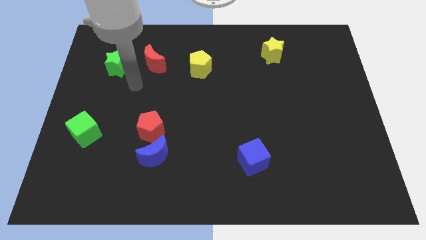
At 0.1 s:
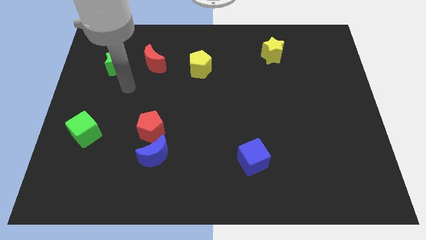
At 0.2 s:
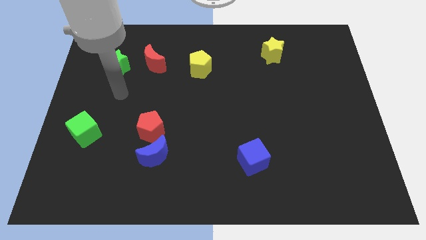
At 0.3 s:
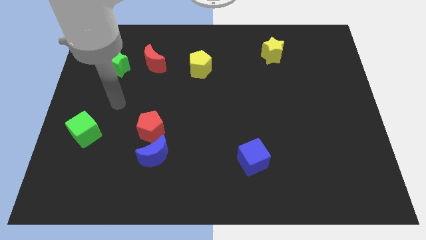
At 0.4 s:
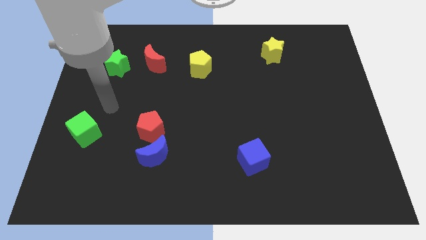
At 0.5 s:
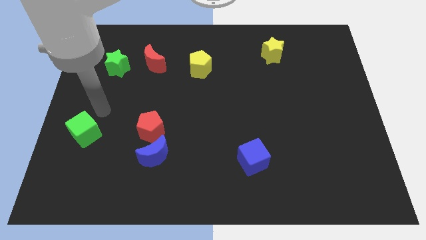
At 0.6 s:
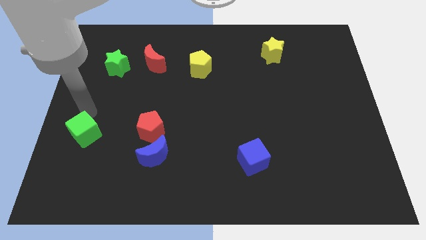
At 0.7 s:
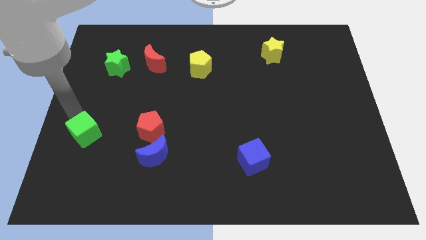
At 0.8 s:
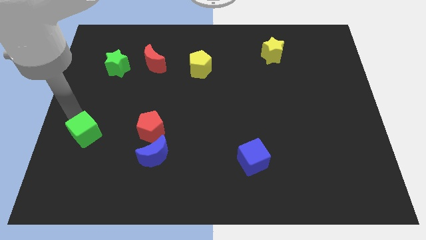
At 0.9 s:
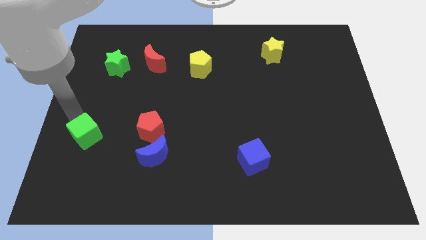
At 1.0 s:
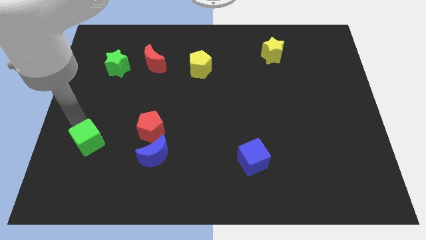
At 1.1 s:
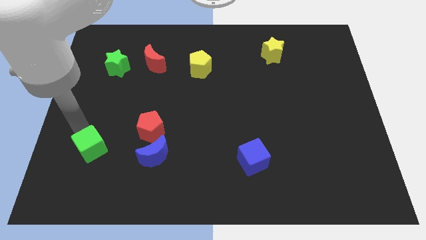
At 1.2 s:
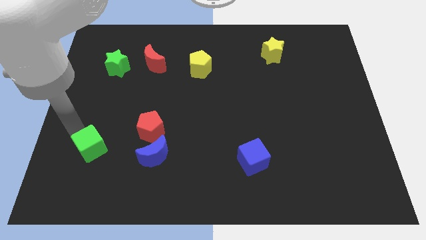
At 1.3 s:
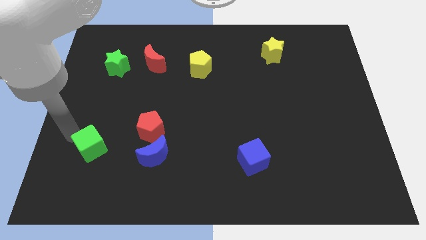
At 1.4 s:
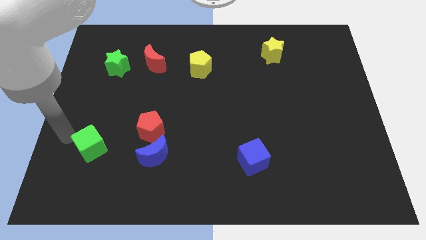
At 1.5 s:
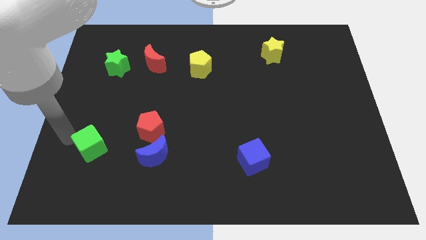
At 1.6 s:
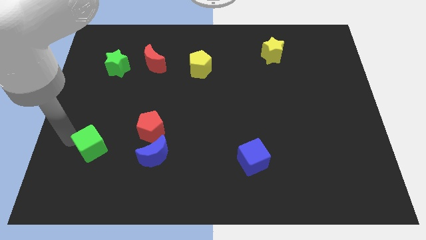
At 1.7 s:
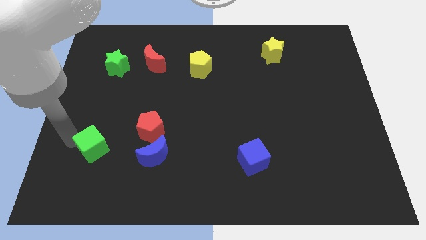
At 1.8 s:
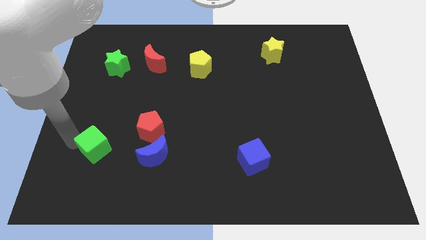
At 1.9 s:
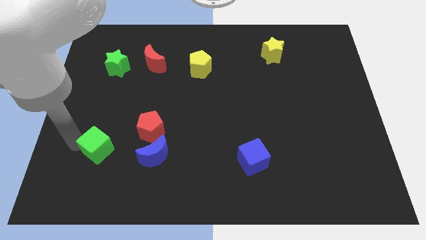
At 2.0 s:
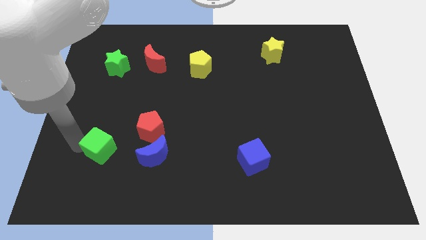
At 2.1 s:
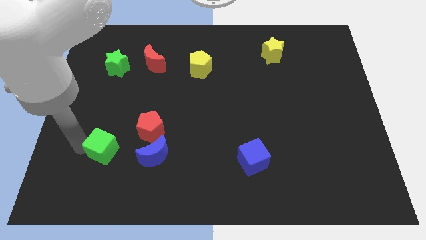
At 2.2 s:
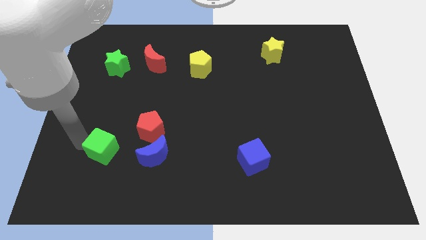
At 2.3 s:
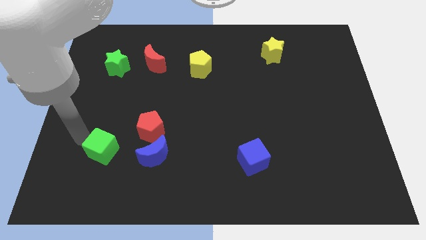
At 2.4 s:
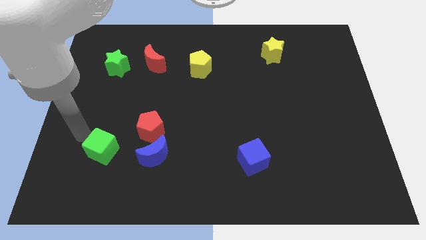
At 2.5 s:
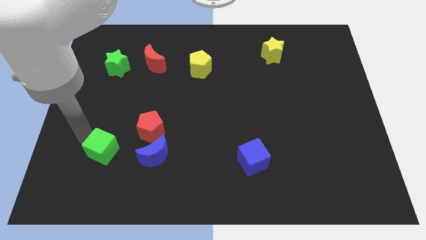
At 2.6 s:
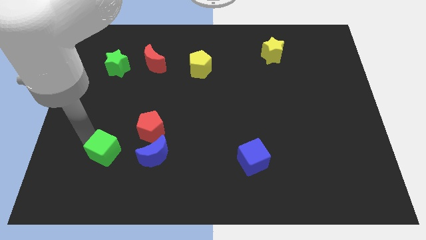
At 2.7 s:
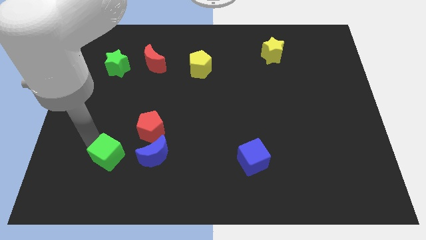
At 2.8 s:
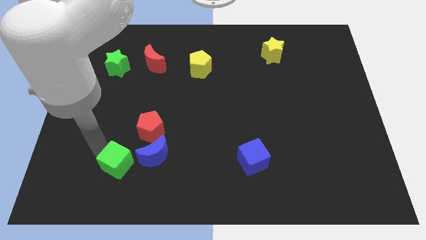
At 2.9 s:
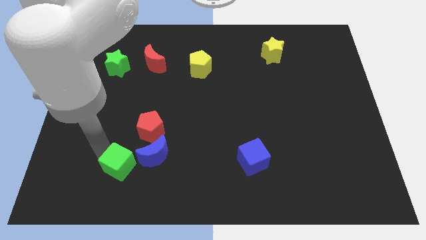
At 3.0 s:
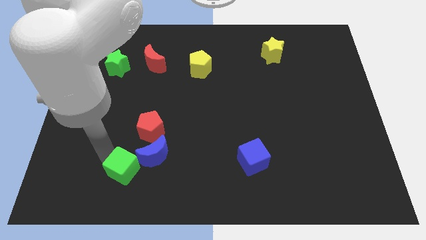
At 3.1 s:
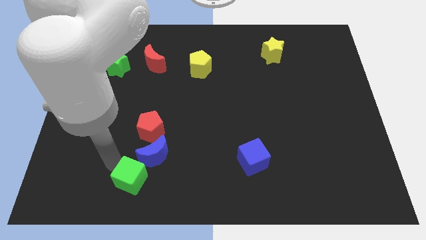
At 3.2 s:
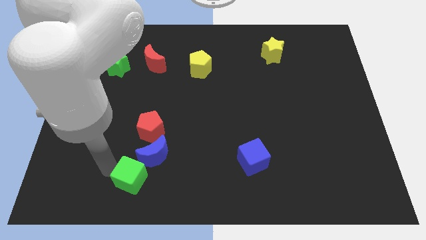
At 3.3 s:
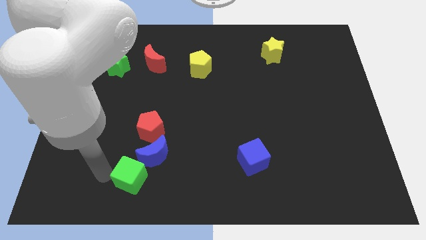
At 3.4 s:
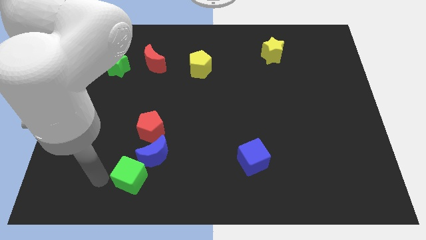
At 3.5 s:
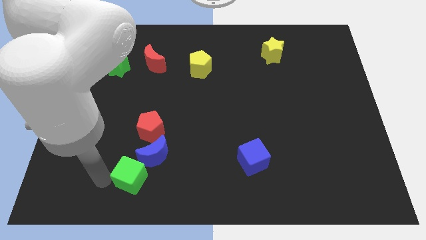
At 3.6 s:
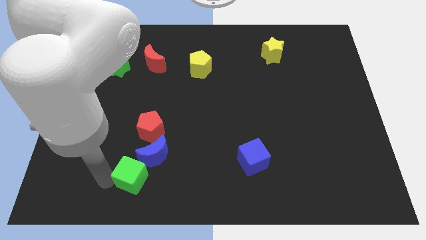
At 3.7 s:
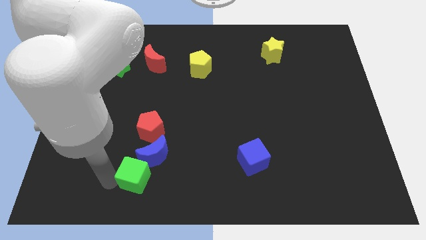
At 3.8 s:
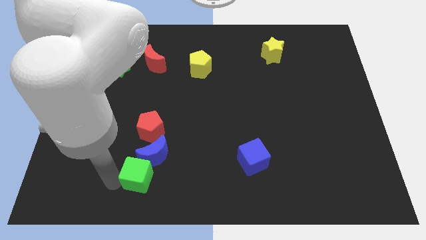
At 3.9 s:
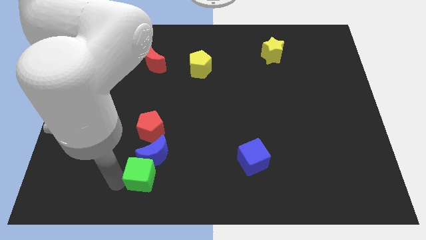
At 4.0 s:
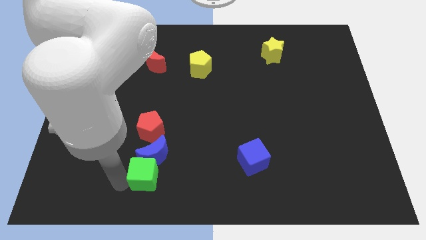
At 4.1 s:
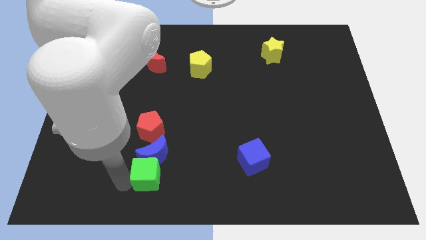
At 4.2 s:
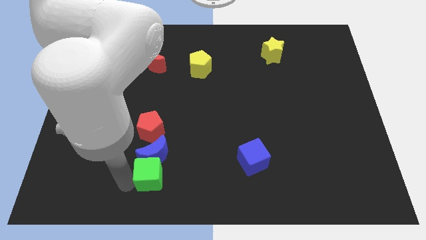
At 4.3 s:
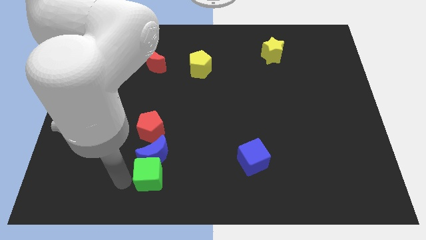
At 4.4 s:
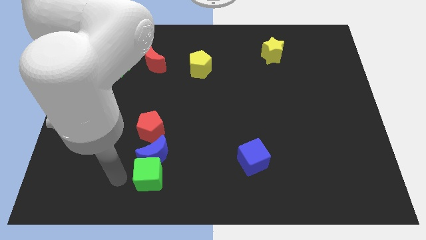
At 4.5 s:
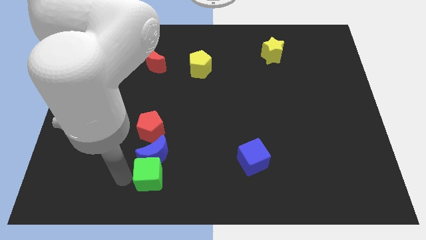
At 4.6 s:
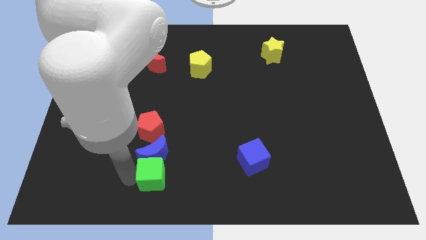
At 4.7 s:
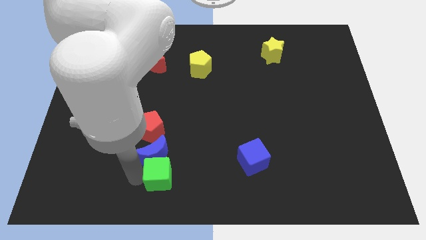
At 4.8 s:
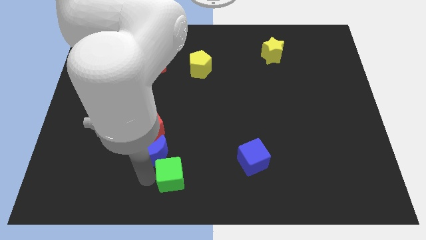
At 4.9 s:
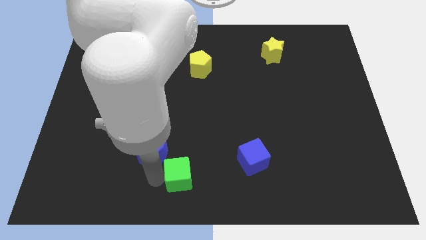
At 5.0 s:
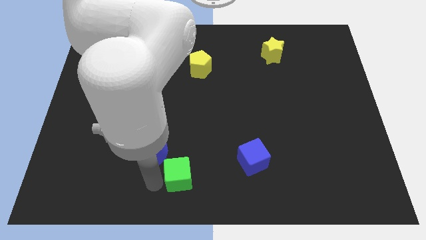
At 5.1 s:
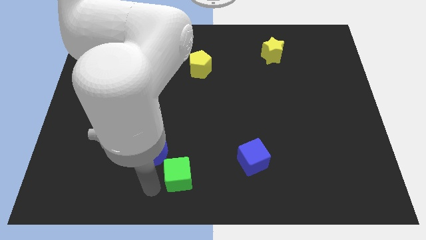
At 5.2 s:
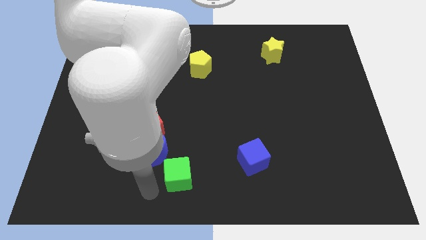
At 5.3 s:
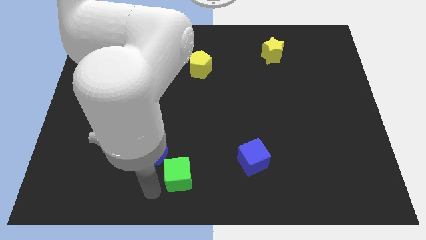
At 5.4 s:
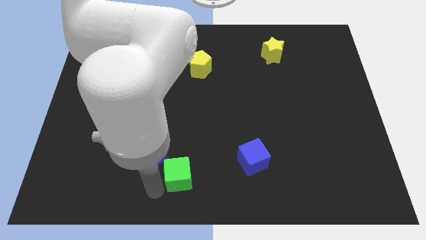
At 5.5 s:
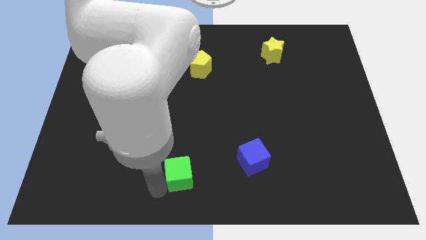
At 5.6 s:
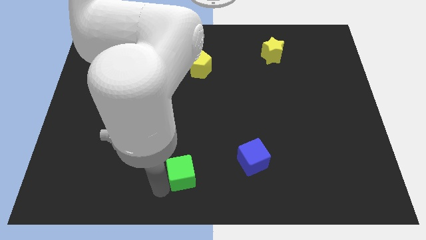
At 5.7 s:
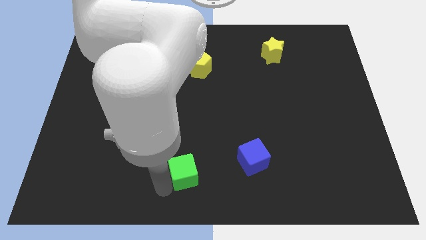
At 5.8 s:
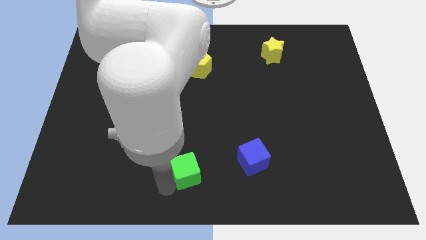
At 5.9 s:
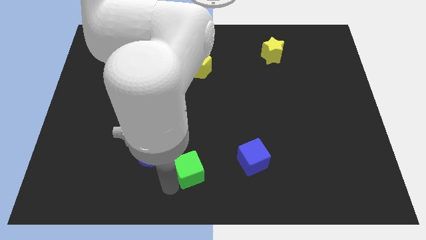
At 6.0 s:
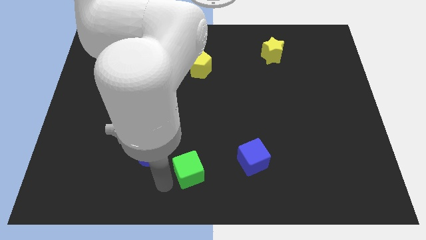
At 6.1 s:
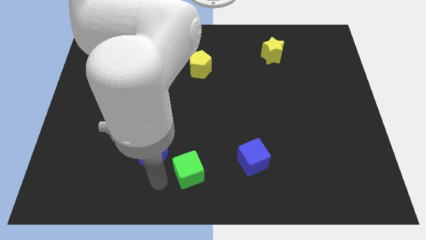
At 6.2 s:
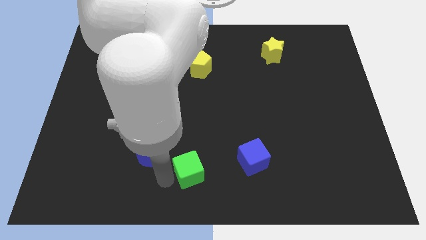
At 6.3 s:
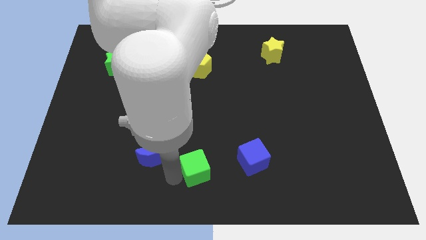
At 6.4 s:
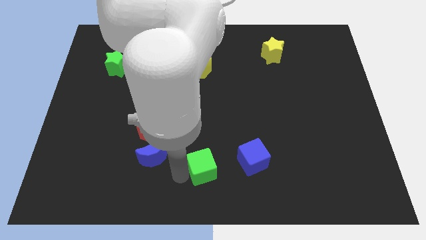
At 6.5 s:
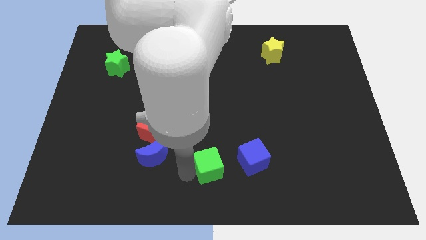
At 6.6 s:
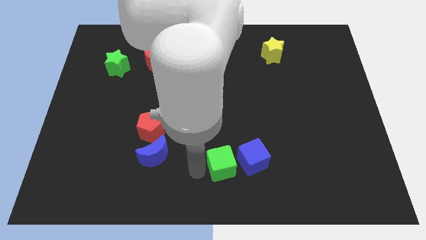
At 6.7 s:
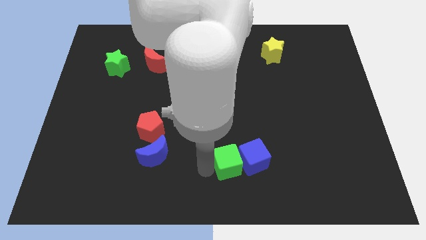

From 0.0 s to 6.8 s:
push the green cube to the blue cube

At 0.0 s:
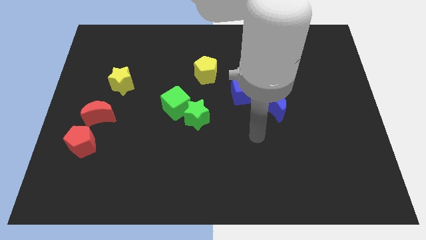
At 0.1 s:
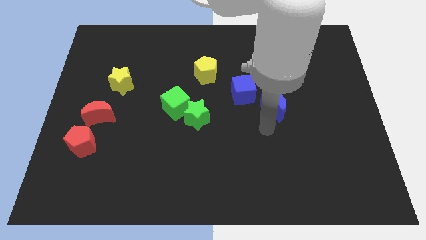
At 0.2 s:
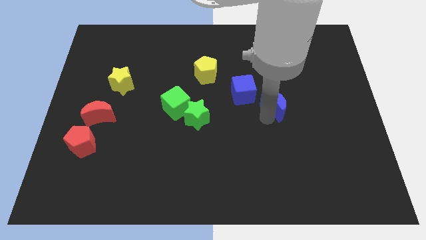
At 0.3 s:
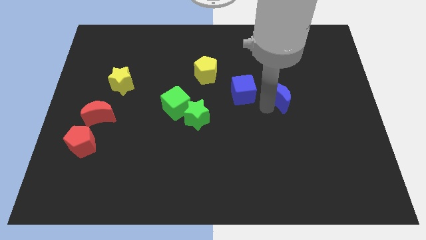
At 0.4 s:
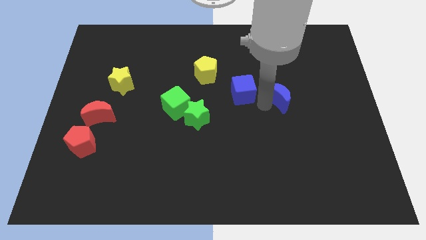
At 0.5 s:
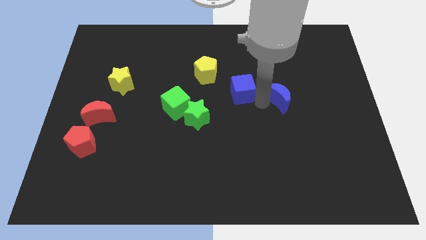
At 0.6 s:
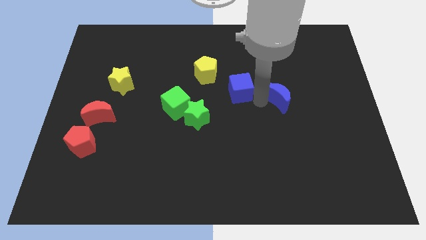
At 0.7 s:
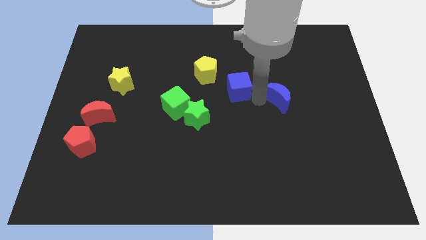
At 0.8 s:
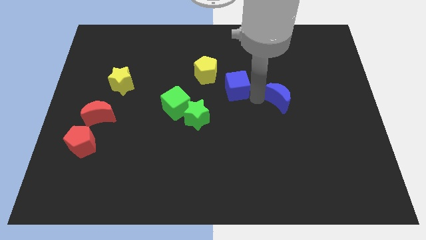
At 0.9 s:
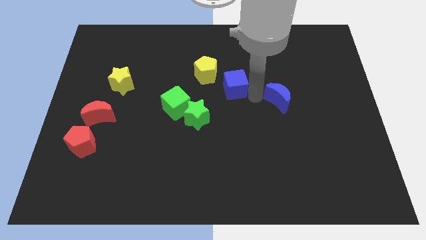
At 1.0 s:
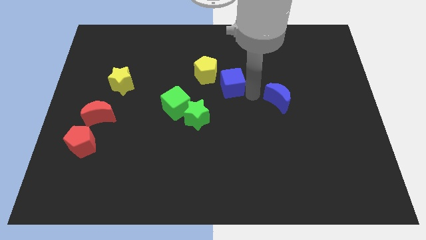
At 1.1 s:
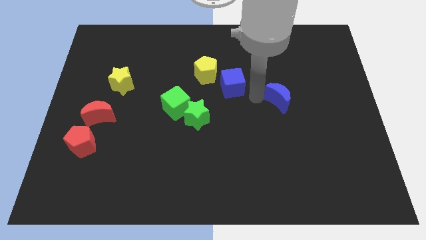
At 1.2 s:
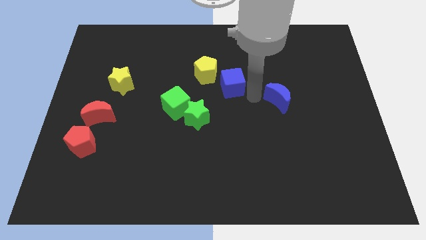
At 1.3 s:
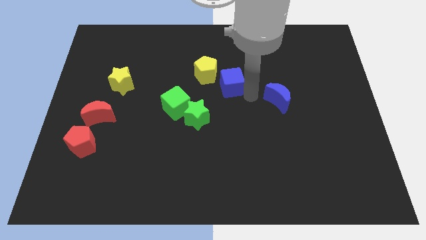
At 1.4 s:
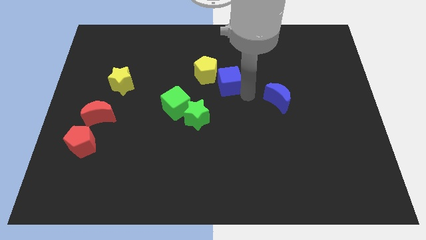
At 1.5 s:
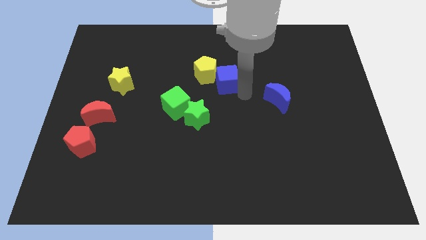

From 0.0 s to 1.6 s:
move the blue cube close to the yellow pentagon
